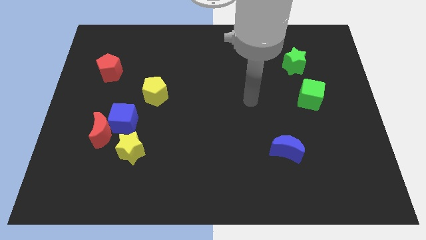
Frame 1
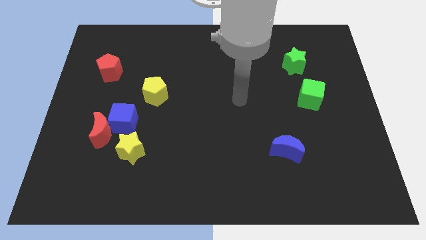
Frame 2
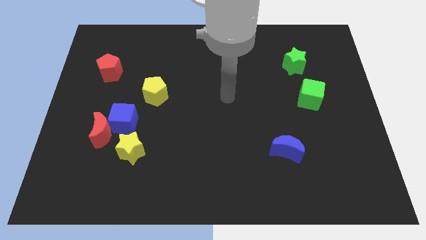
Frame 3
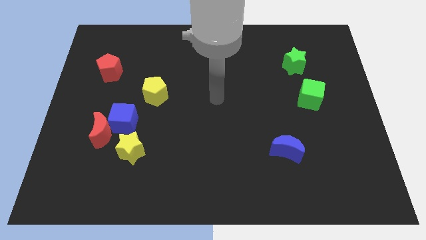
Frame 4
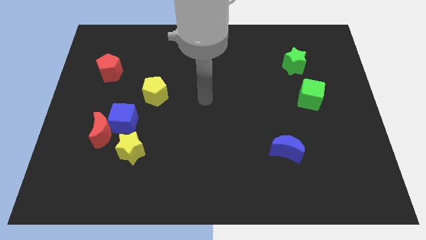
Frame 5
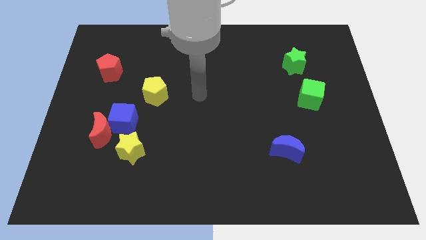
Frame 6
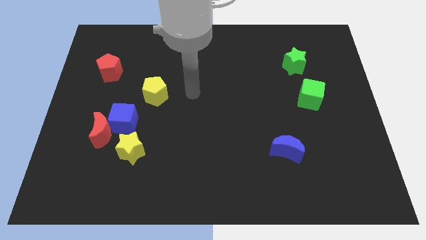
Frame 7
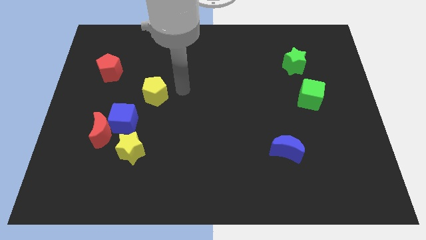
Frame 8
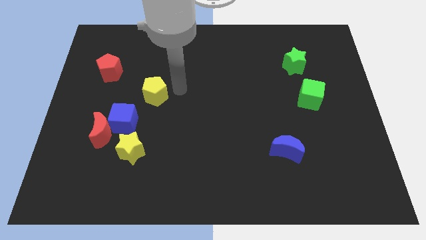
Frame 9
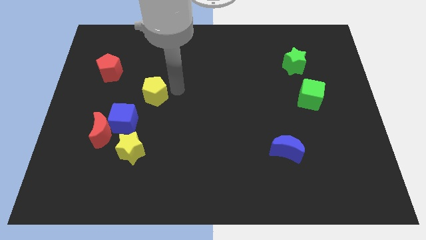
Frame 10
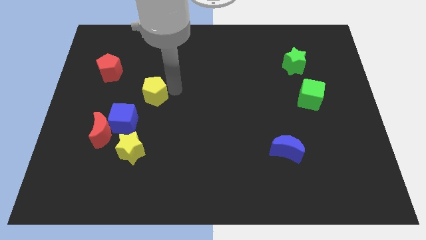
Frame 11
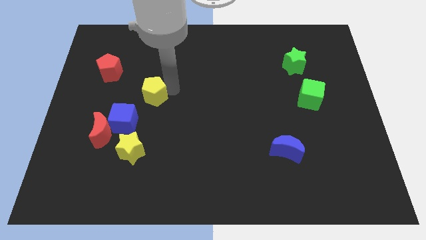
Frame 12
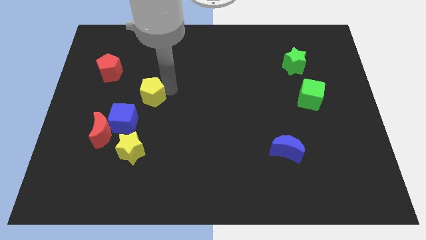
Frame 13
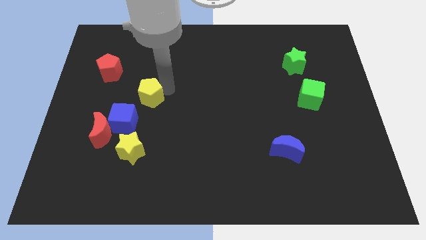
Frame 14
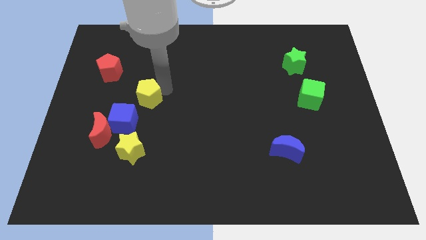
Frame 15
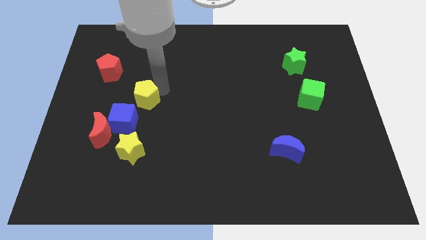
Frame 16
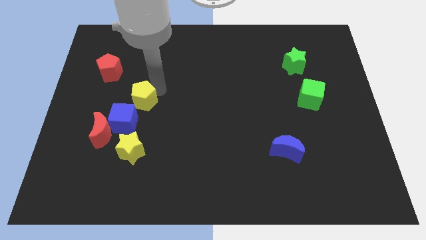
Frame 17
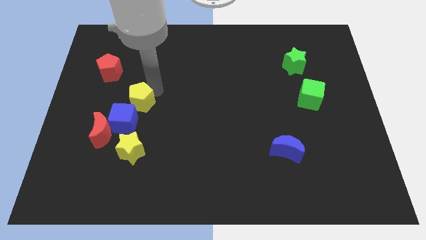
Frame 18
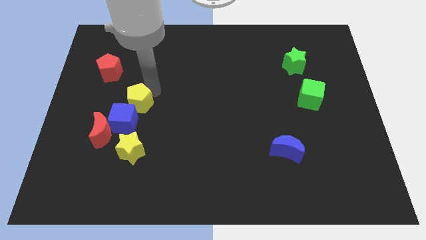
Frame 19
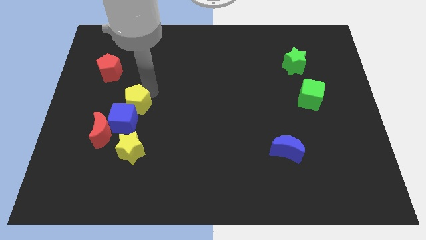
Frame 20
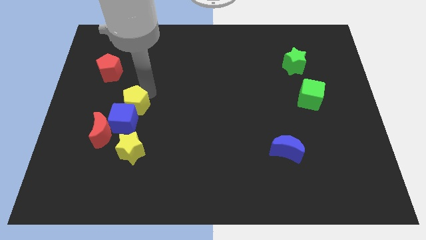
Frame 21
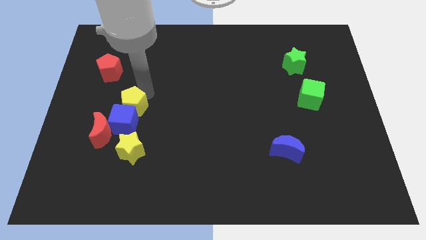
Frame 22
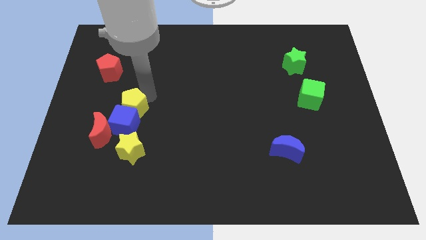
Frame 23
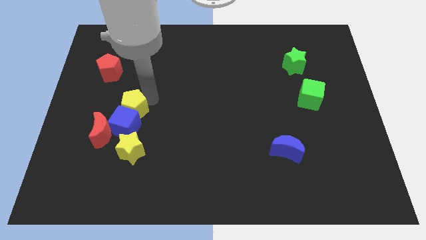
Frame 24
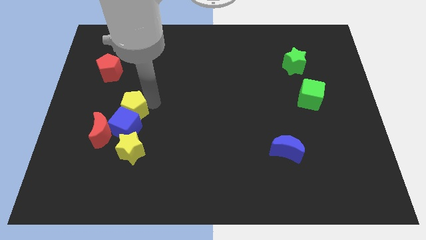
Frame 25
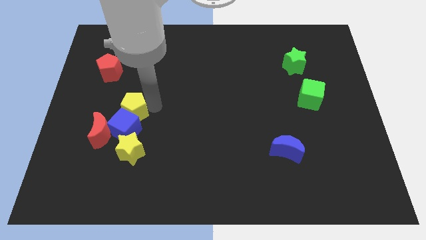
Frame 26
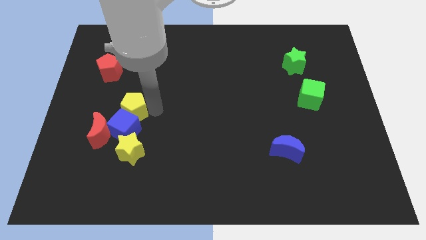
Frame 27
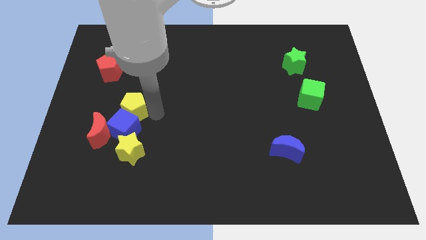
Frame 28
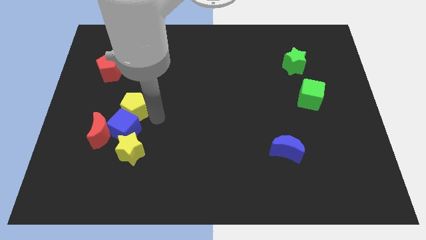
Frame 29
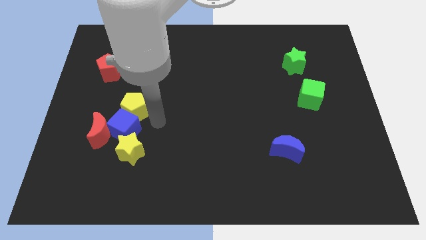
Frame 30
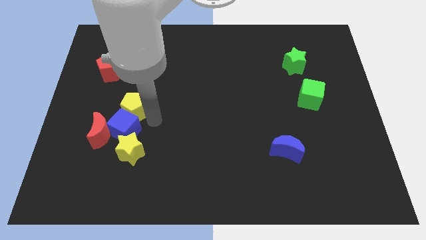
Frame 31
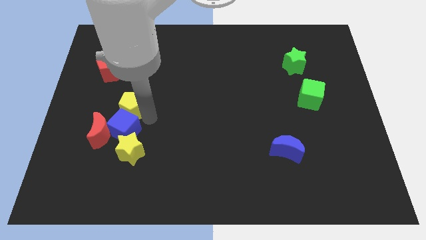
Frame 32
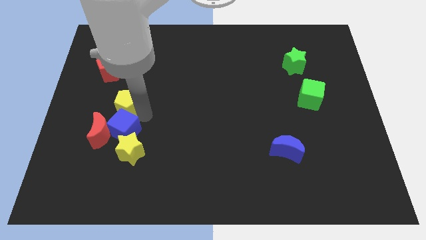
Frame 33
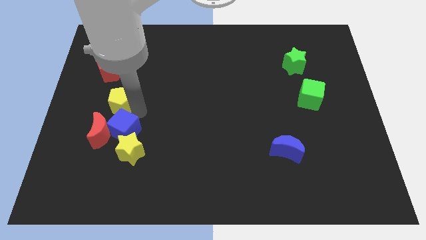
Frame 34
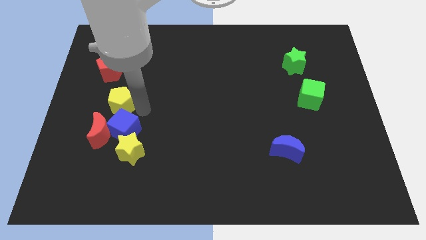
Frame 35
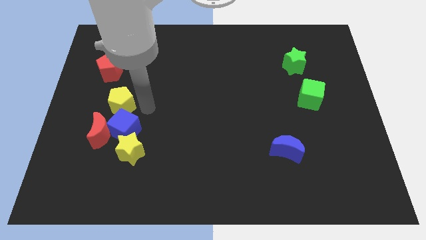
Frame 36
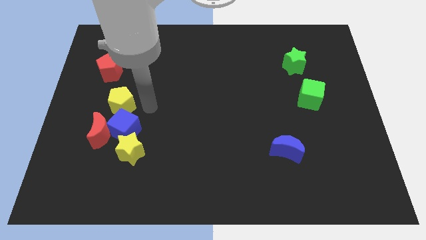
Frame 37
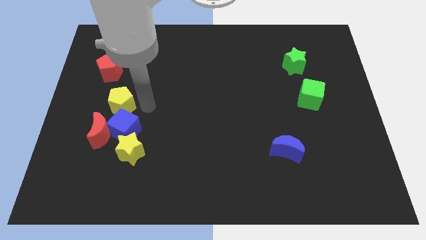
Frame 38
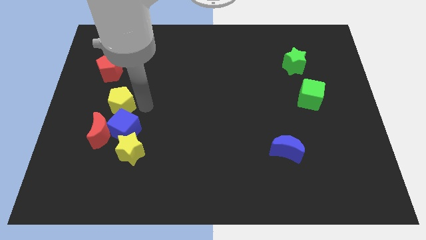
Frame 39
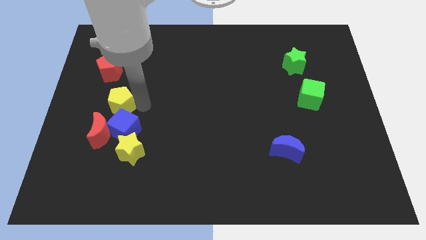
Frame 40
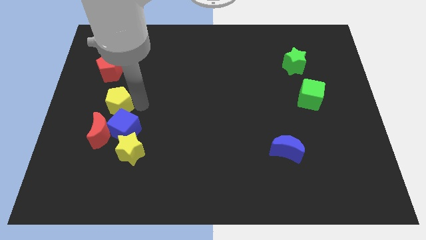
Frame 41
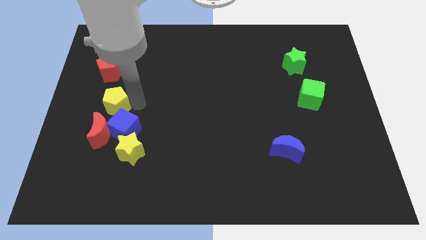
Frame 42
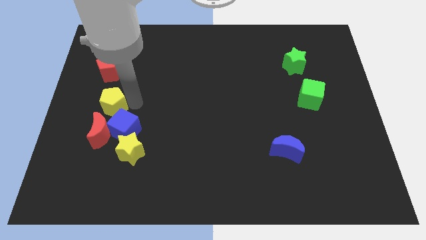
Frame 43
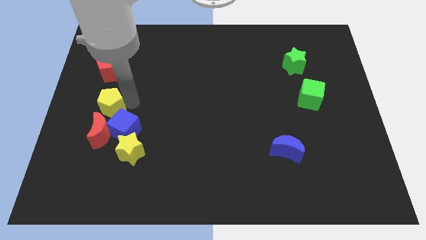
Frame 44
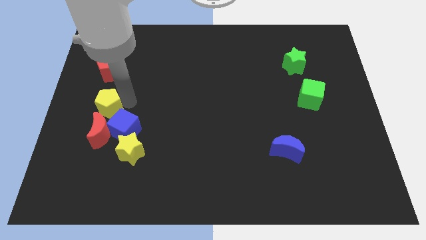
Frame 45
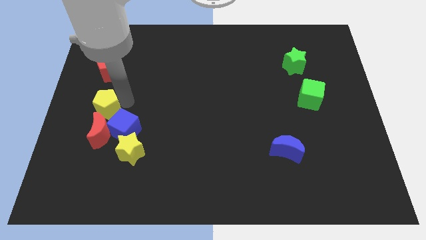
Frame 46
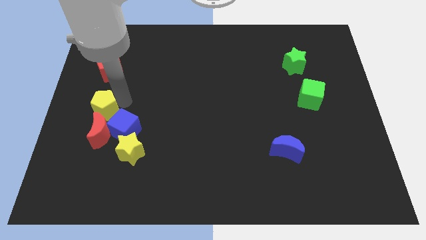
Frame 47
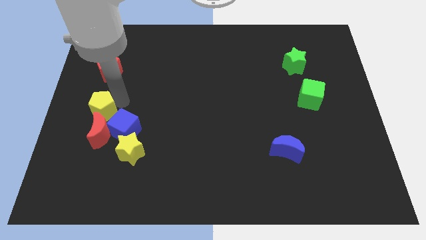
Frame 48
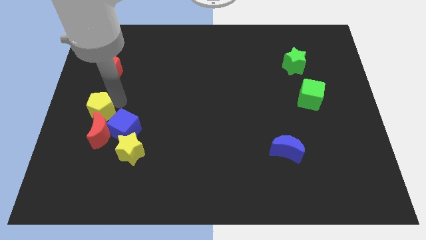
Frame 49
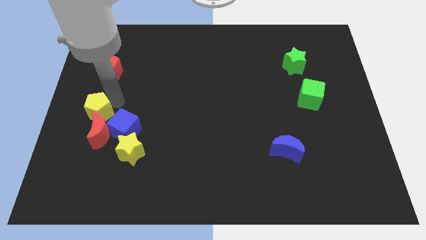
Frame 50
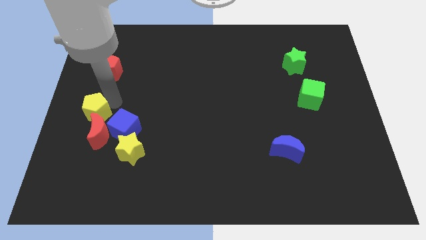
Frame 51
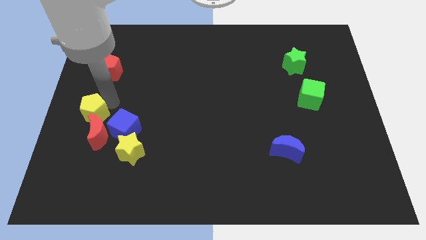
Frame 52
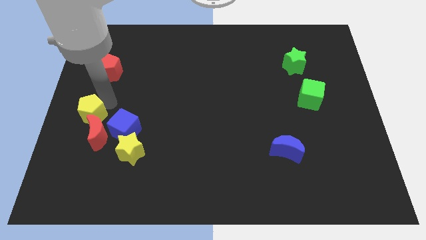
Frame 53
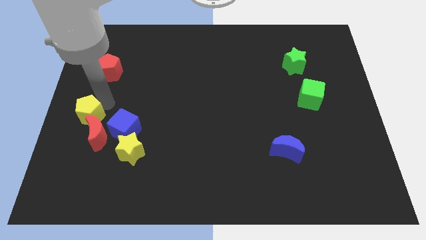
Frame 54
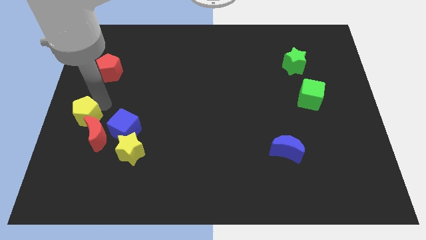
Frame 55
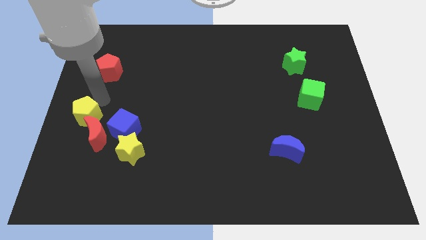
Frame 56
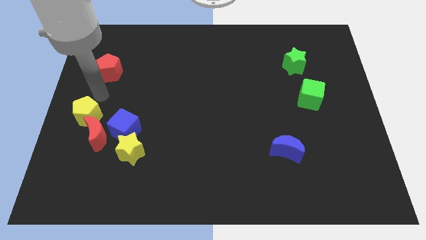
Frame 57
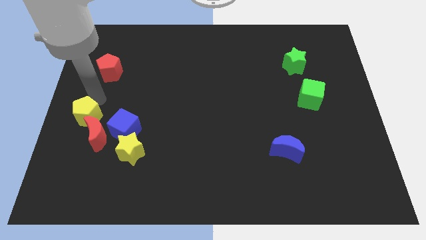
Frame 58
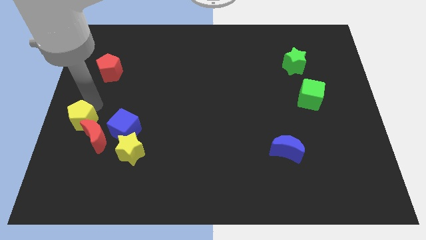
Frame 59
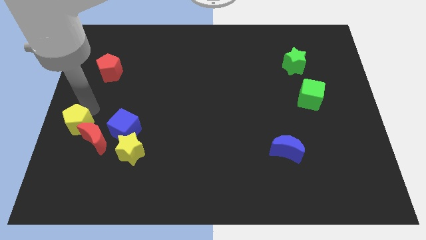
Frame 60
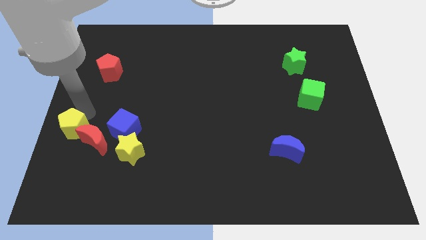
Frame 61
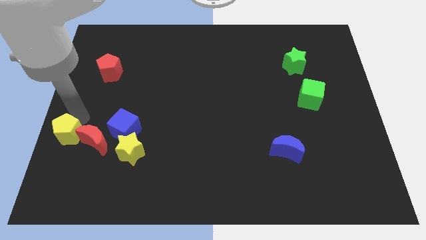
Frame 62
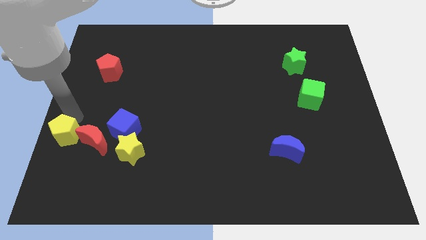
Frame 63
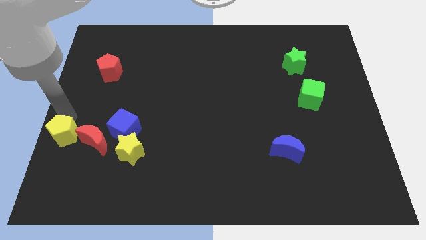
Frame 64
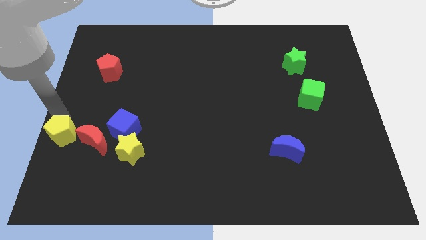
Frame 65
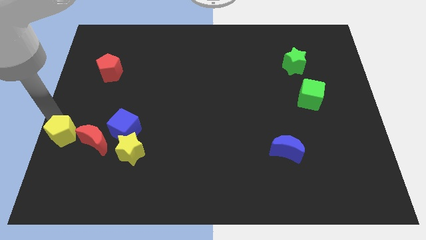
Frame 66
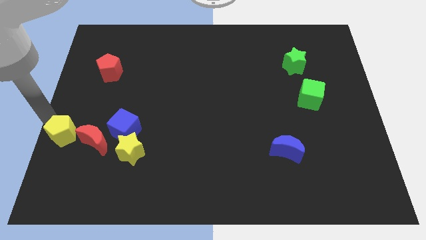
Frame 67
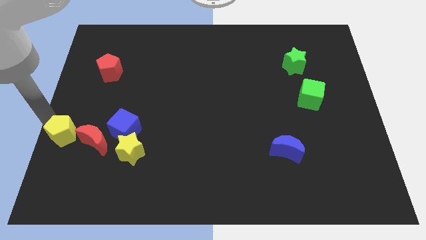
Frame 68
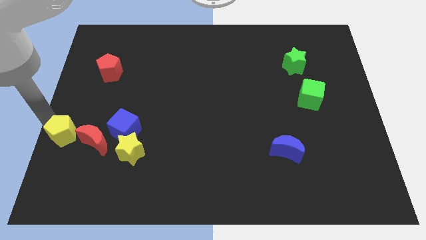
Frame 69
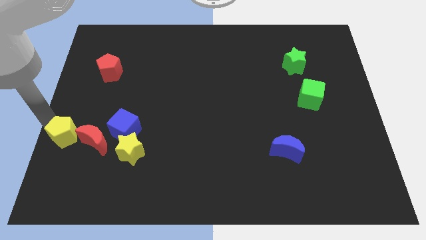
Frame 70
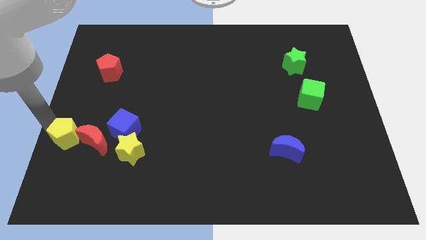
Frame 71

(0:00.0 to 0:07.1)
slide the yellow pentagon left of the yellow star
